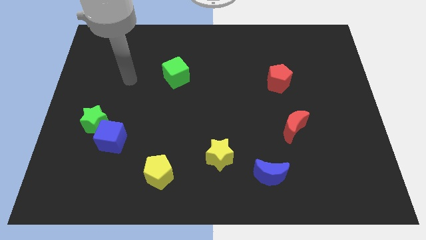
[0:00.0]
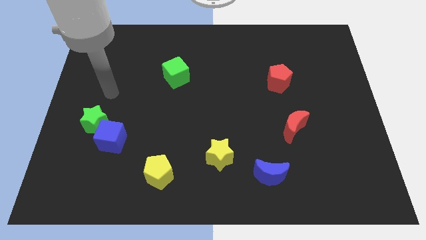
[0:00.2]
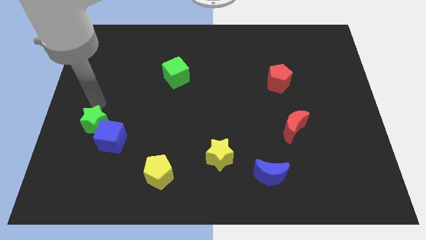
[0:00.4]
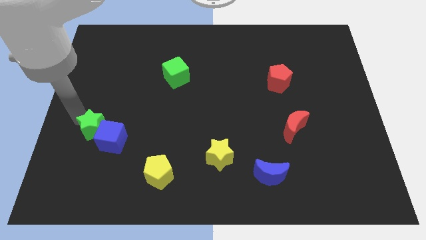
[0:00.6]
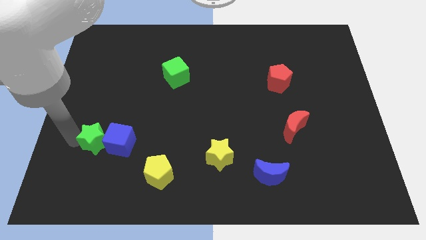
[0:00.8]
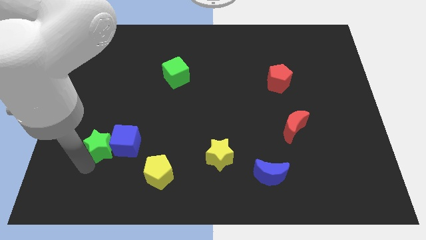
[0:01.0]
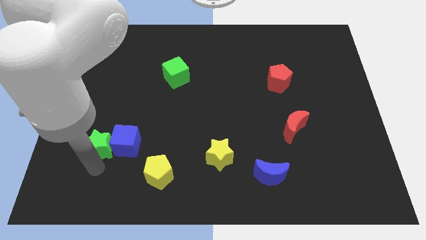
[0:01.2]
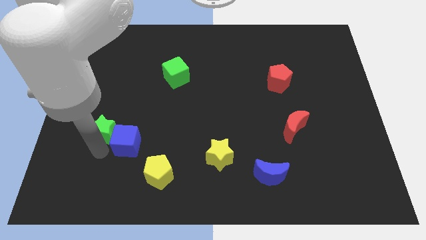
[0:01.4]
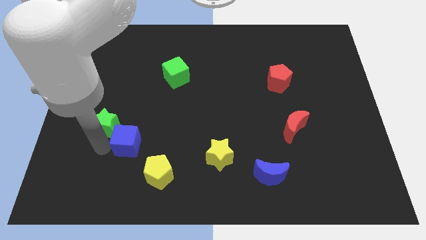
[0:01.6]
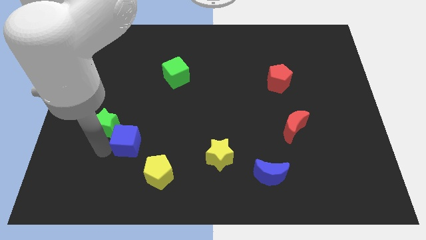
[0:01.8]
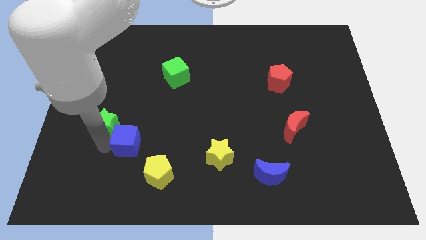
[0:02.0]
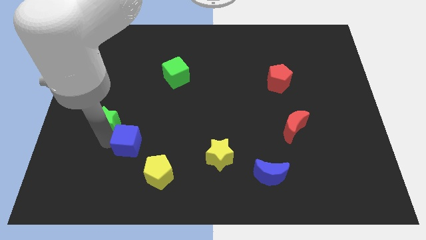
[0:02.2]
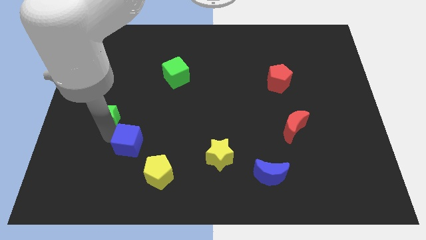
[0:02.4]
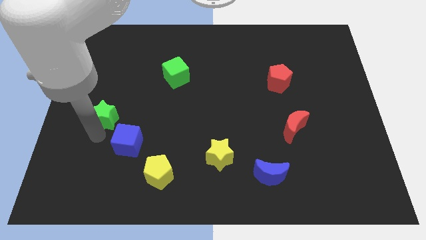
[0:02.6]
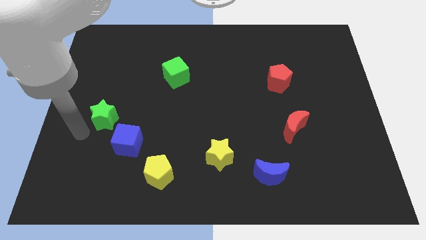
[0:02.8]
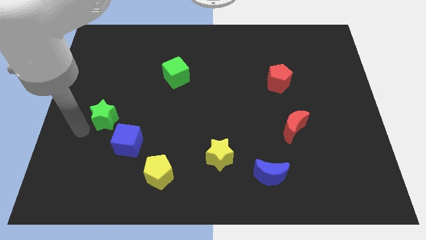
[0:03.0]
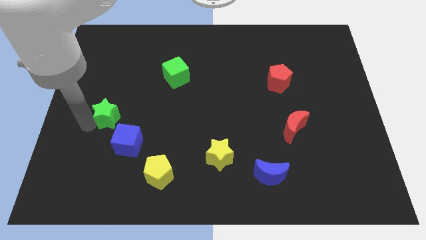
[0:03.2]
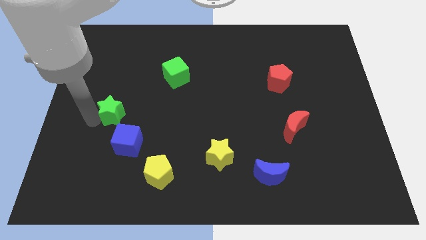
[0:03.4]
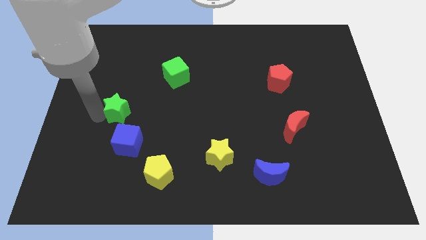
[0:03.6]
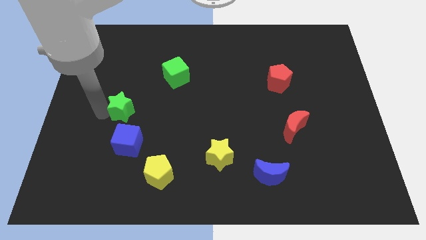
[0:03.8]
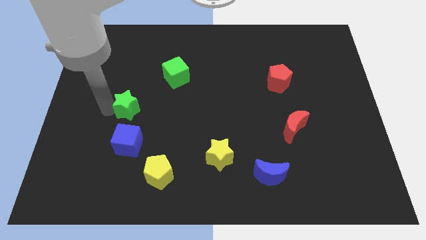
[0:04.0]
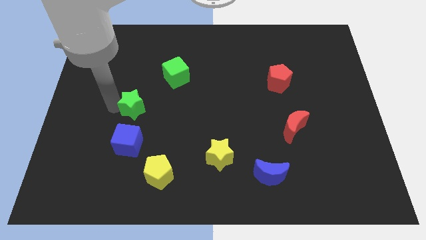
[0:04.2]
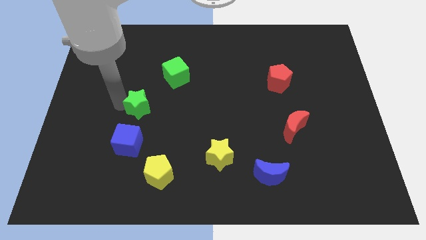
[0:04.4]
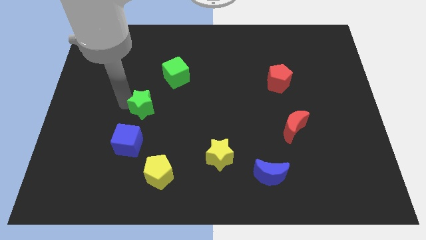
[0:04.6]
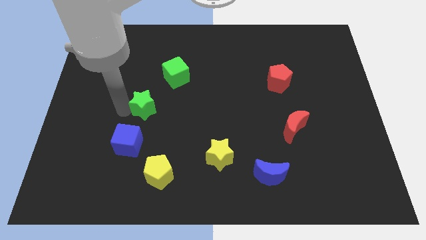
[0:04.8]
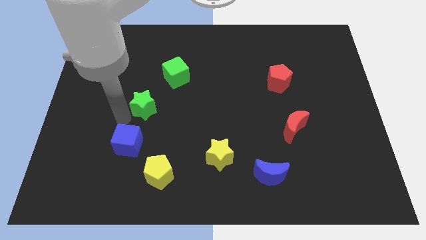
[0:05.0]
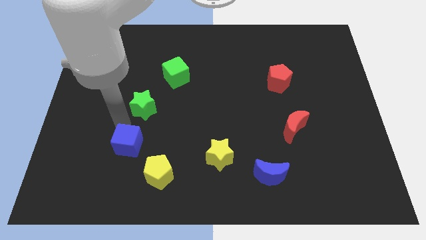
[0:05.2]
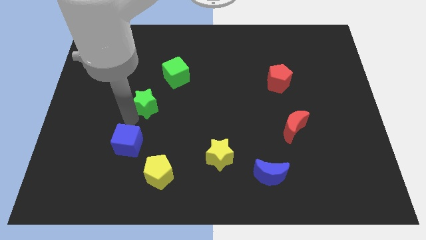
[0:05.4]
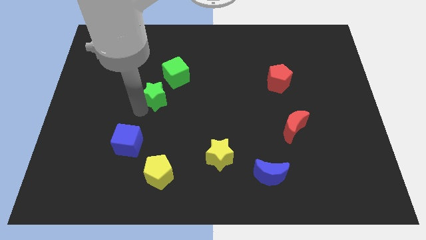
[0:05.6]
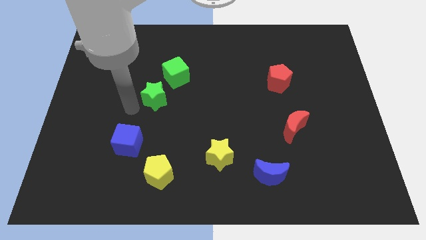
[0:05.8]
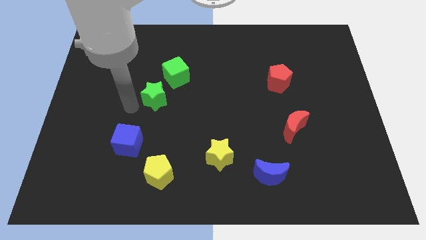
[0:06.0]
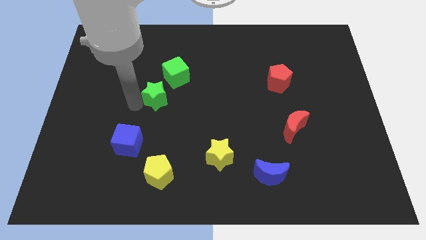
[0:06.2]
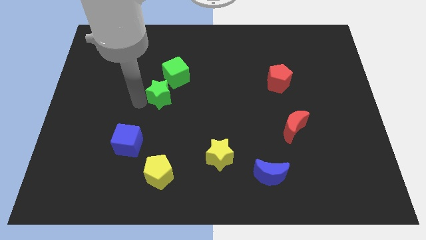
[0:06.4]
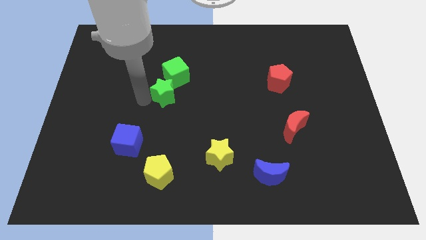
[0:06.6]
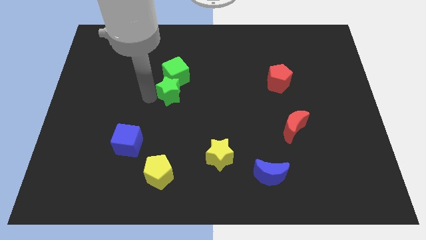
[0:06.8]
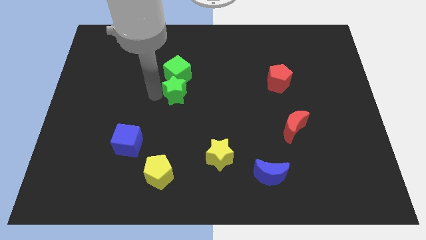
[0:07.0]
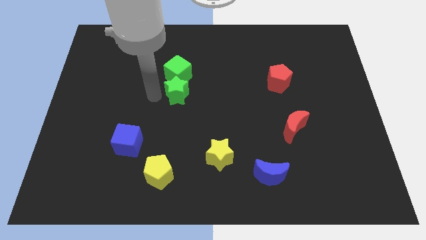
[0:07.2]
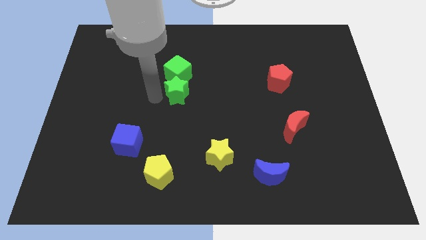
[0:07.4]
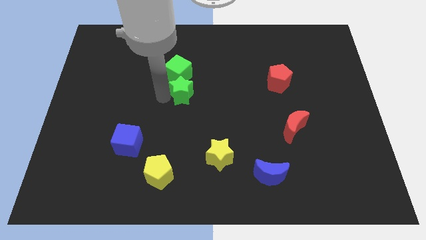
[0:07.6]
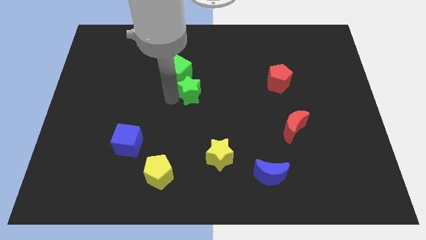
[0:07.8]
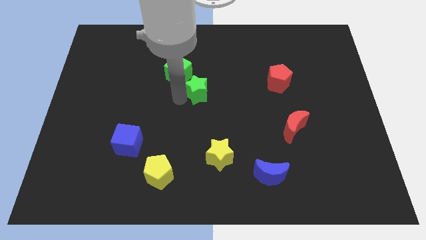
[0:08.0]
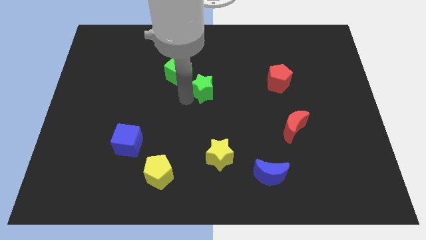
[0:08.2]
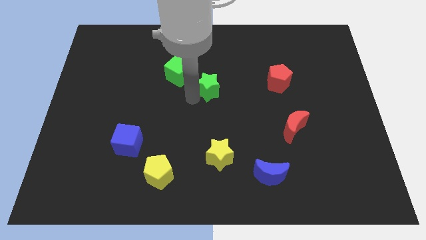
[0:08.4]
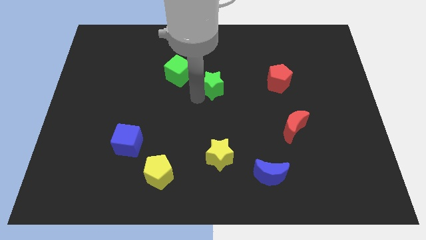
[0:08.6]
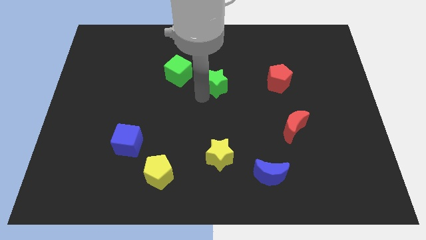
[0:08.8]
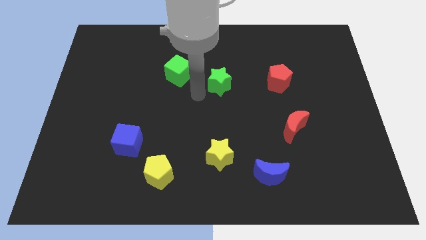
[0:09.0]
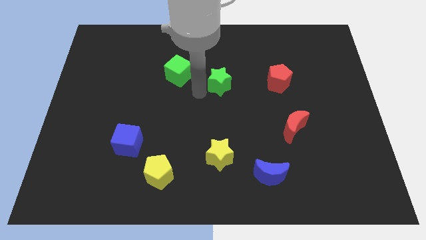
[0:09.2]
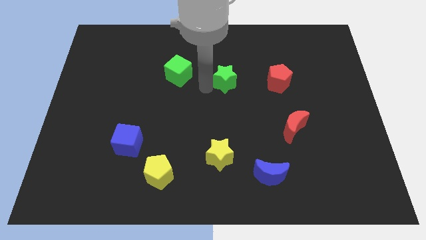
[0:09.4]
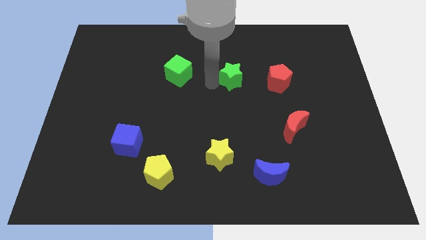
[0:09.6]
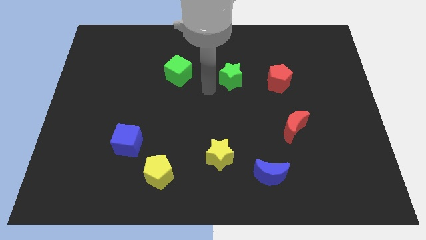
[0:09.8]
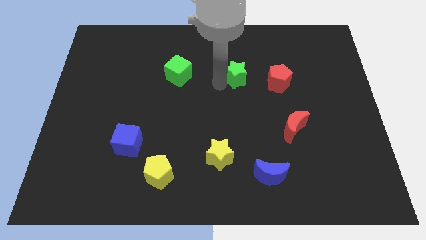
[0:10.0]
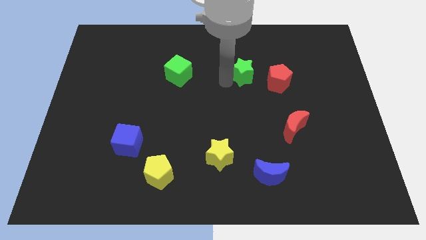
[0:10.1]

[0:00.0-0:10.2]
put the green star to the top left side of the red pentagon

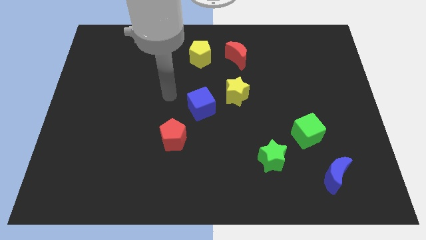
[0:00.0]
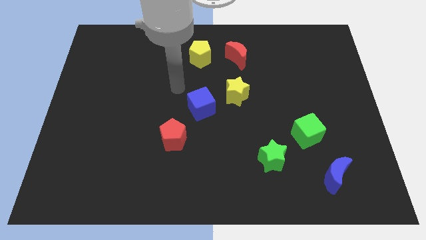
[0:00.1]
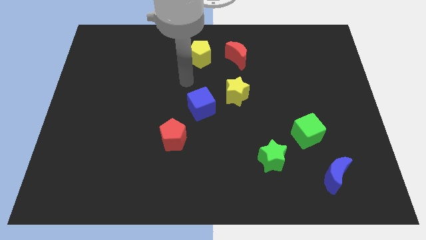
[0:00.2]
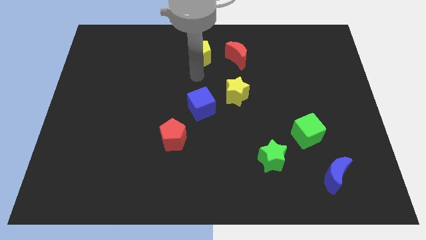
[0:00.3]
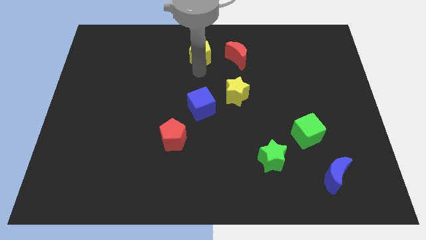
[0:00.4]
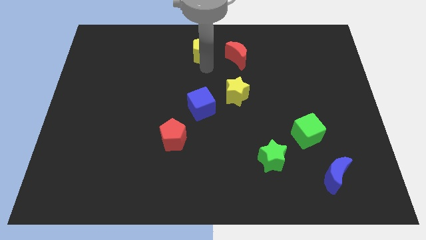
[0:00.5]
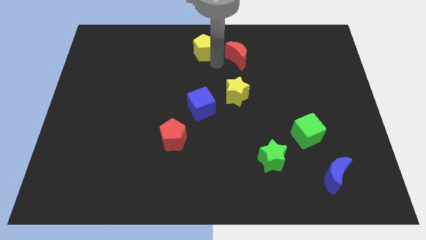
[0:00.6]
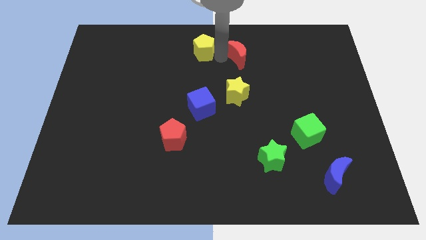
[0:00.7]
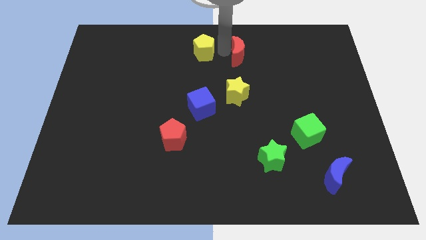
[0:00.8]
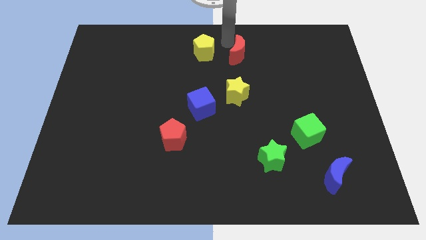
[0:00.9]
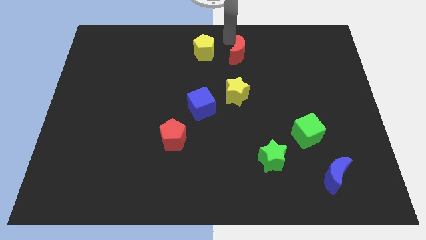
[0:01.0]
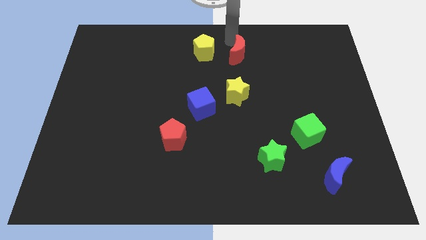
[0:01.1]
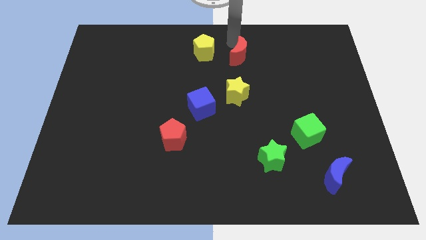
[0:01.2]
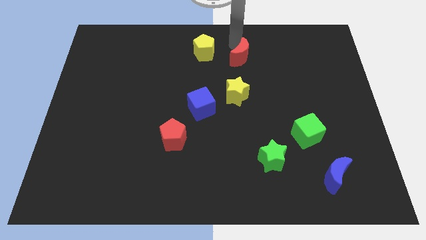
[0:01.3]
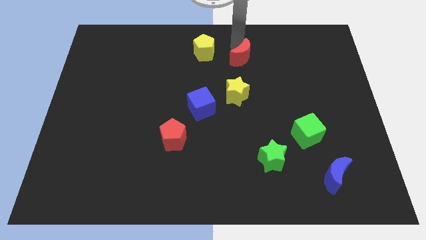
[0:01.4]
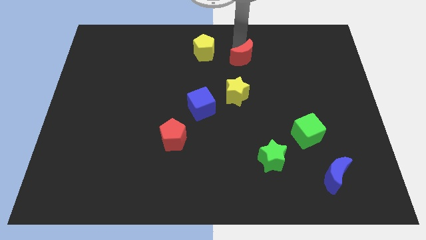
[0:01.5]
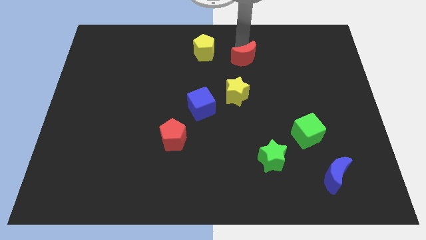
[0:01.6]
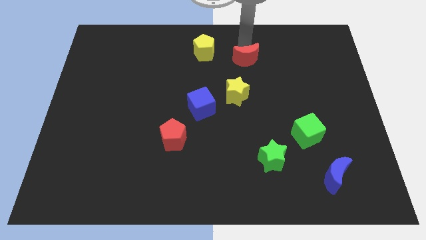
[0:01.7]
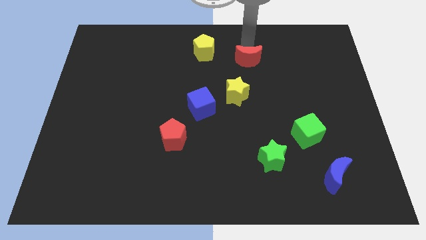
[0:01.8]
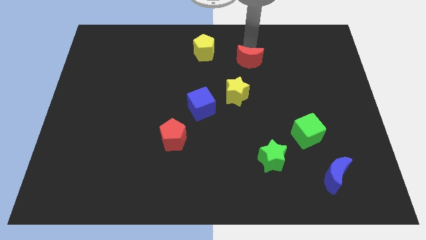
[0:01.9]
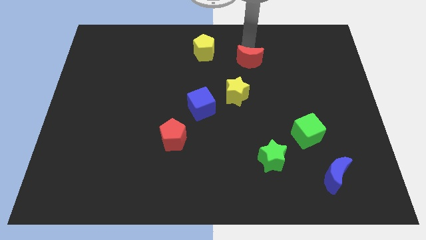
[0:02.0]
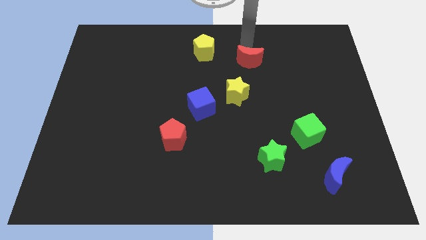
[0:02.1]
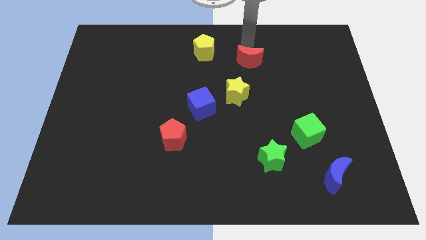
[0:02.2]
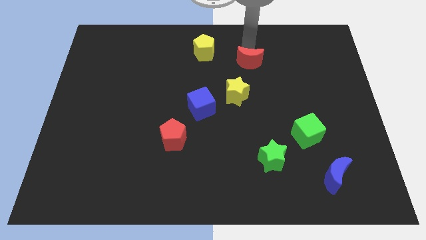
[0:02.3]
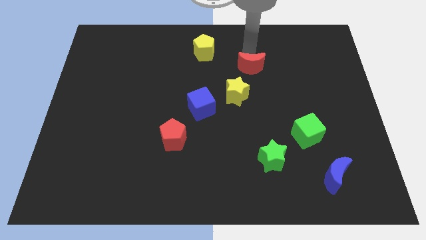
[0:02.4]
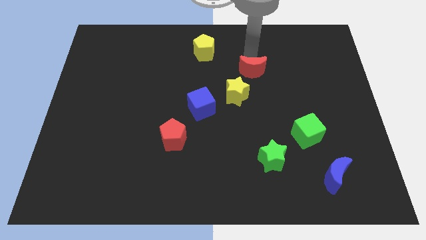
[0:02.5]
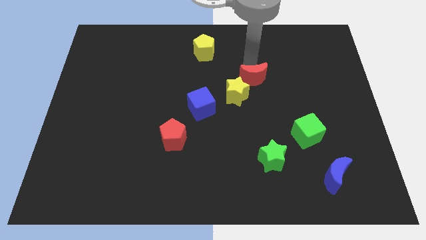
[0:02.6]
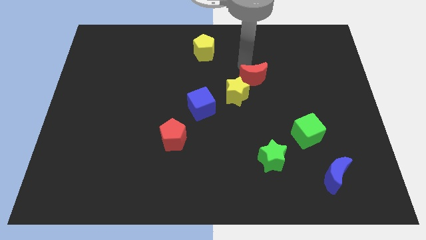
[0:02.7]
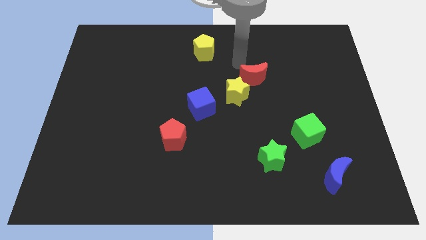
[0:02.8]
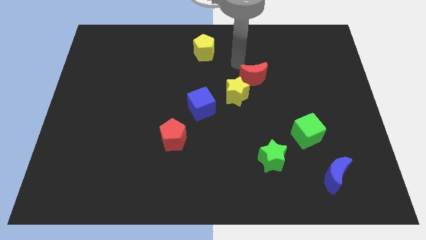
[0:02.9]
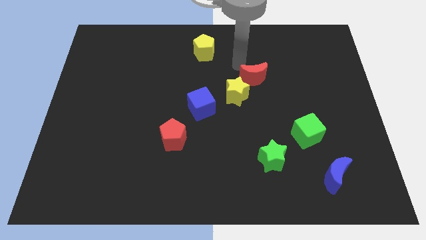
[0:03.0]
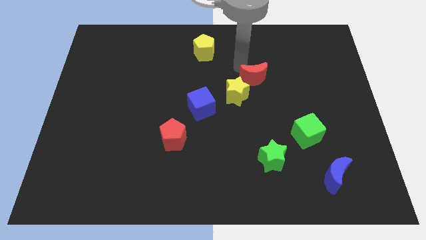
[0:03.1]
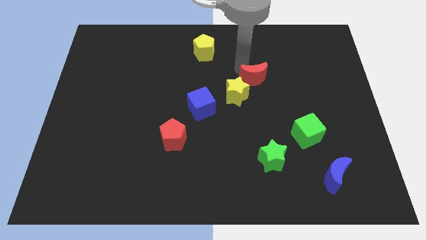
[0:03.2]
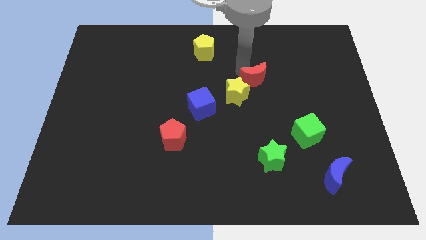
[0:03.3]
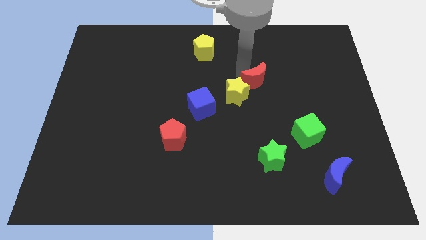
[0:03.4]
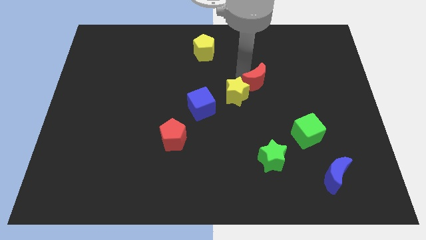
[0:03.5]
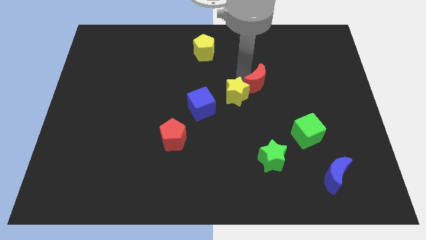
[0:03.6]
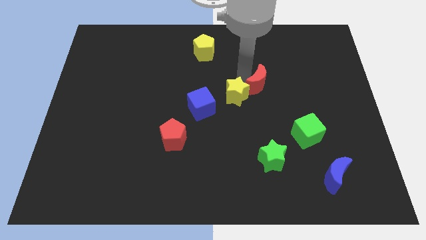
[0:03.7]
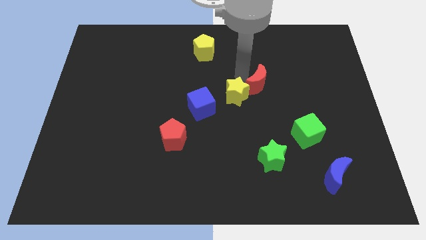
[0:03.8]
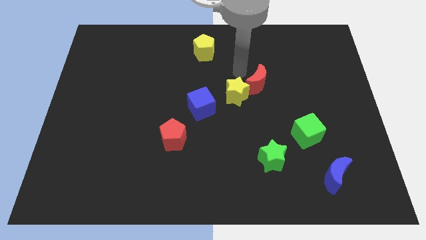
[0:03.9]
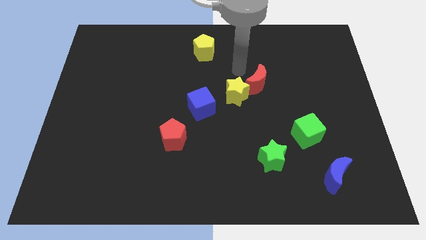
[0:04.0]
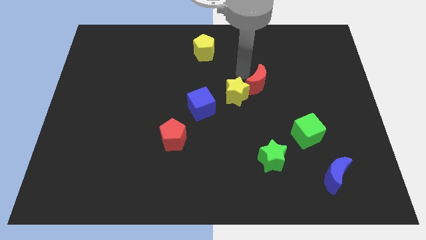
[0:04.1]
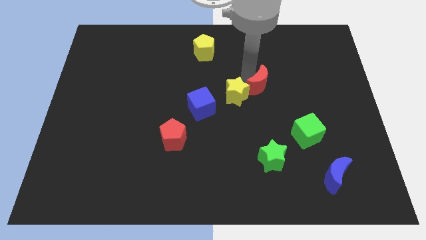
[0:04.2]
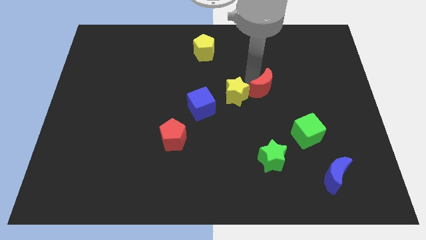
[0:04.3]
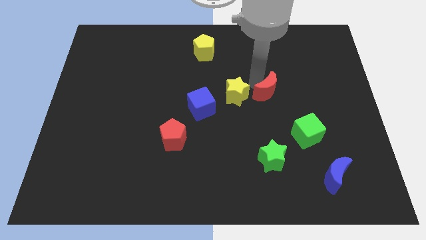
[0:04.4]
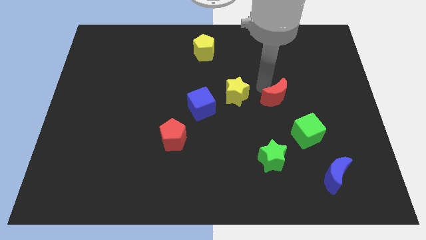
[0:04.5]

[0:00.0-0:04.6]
put the red moon diagonally up and to the left of the green cube
